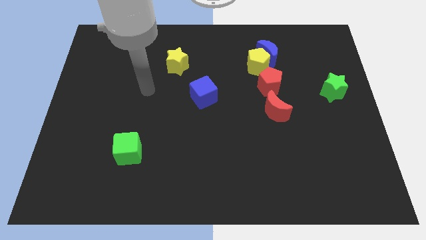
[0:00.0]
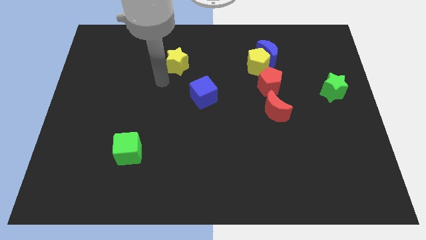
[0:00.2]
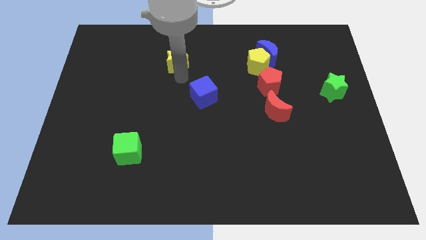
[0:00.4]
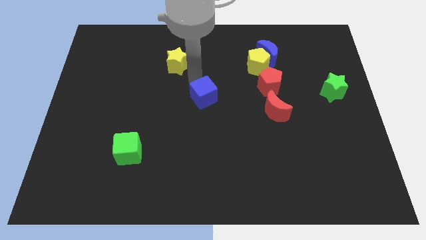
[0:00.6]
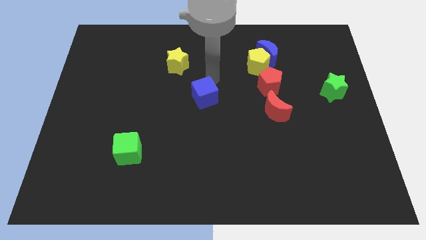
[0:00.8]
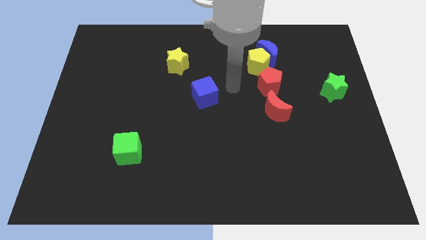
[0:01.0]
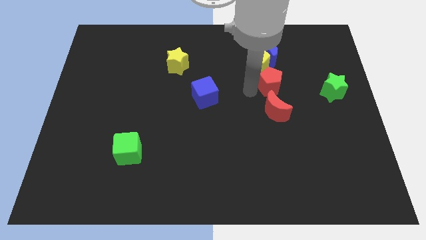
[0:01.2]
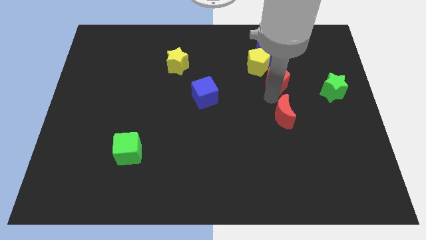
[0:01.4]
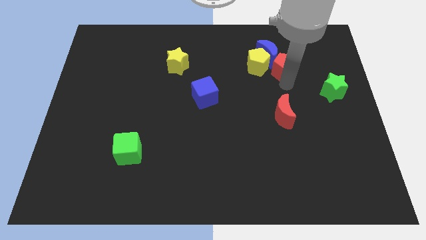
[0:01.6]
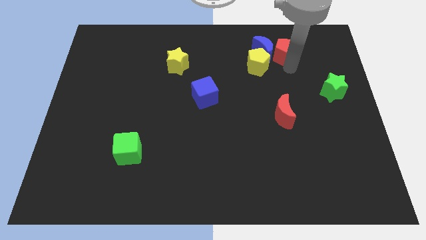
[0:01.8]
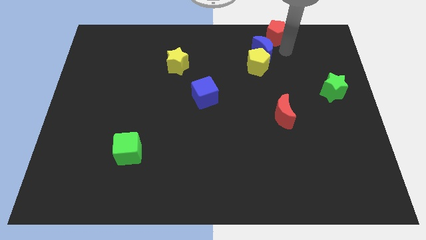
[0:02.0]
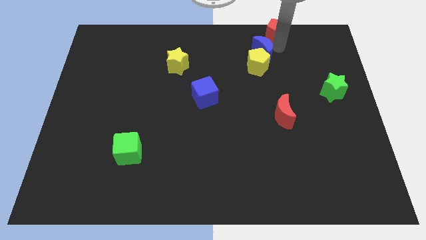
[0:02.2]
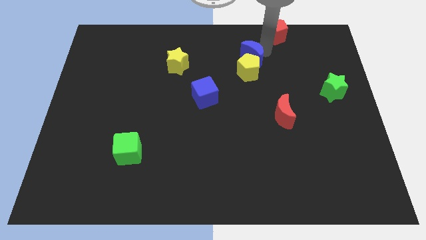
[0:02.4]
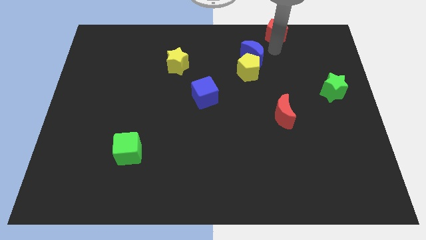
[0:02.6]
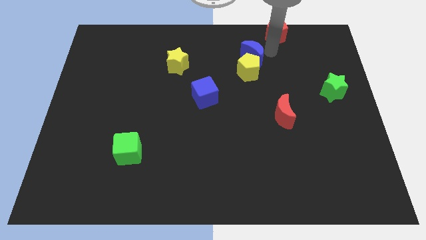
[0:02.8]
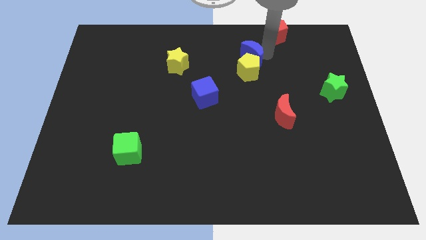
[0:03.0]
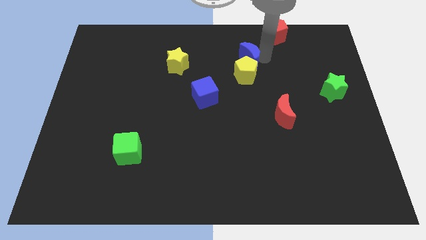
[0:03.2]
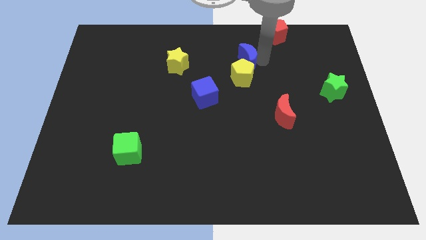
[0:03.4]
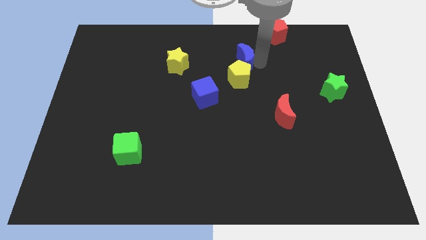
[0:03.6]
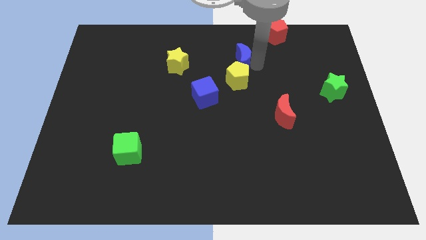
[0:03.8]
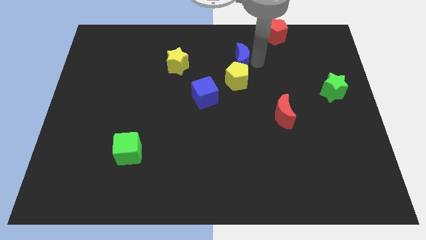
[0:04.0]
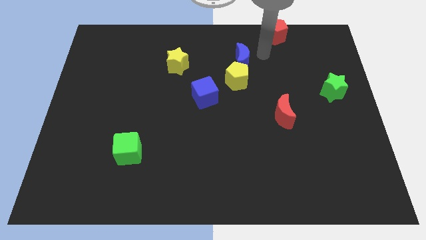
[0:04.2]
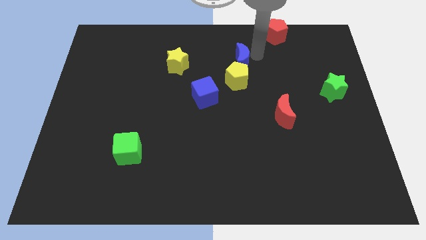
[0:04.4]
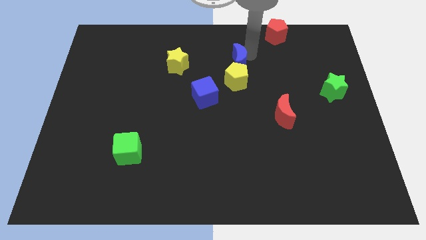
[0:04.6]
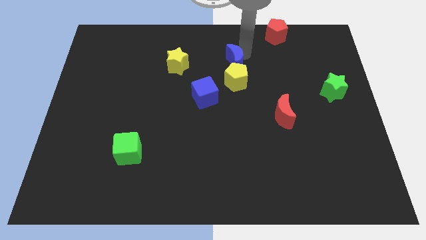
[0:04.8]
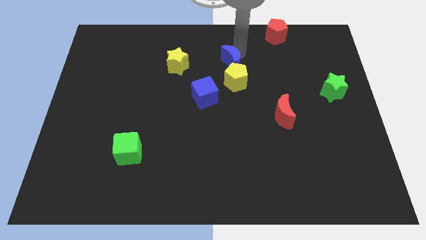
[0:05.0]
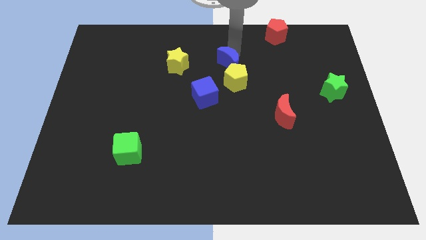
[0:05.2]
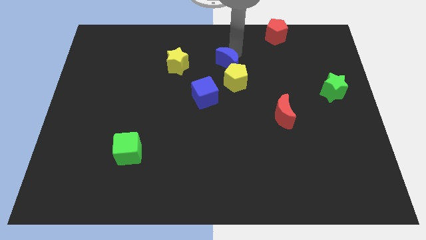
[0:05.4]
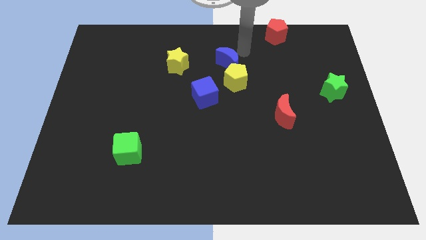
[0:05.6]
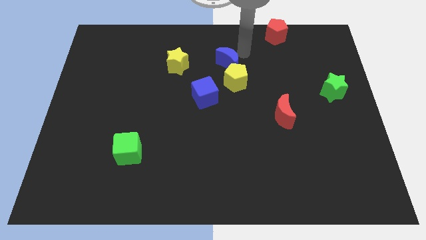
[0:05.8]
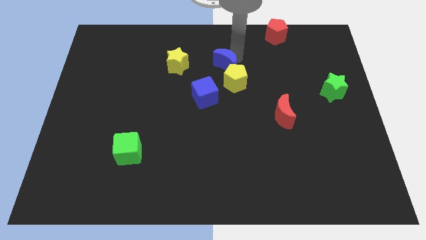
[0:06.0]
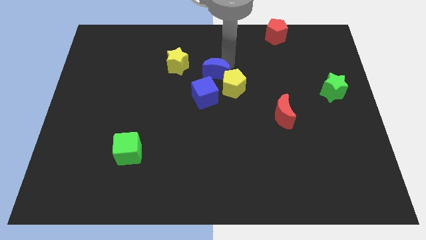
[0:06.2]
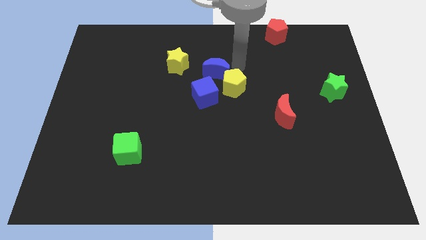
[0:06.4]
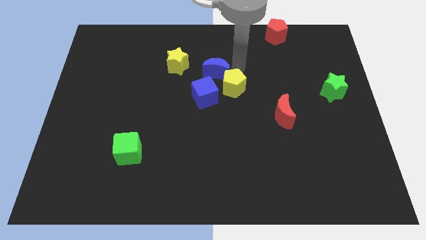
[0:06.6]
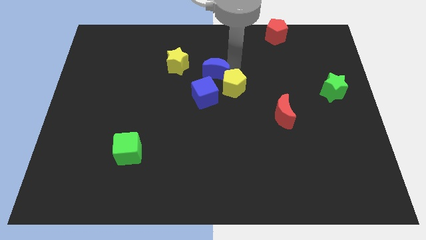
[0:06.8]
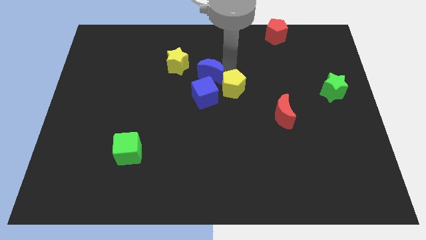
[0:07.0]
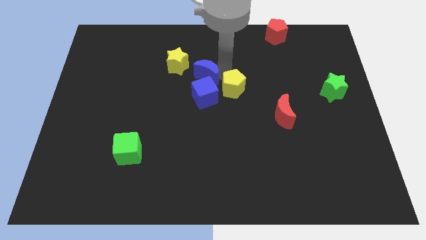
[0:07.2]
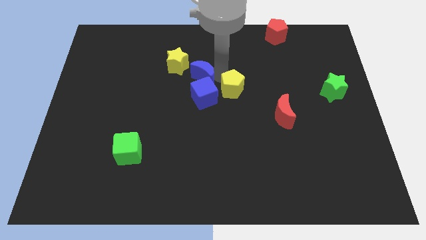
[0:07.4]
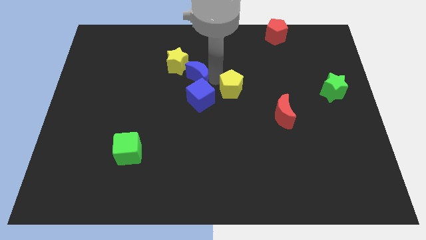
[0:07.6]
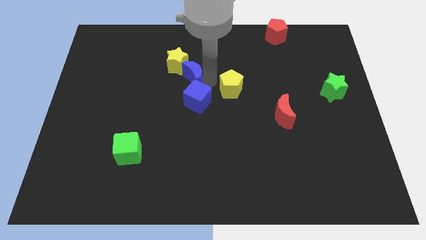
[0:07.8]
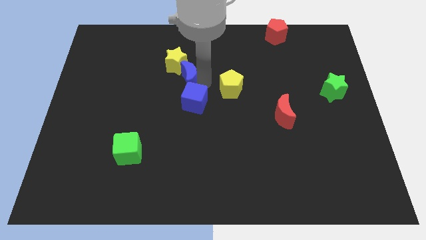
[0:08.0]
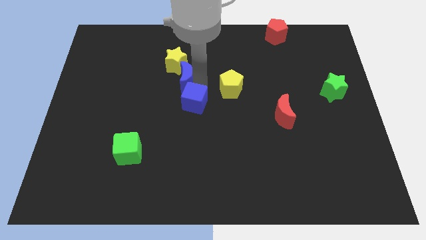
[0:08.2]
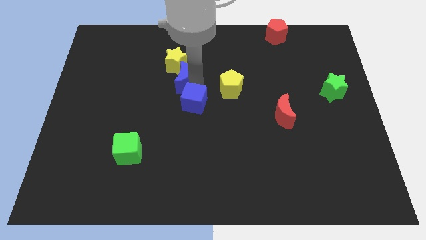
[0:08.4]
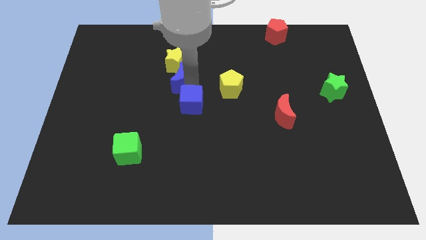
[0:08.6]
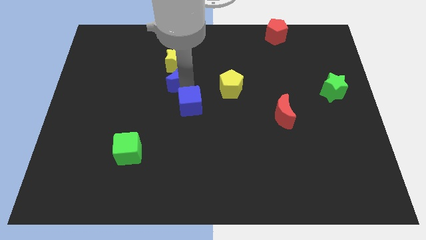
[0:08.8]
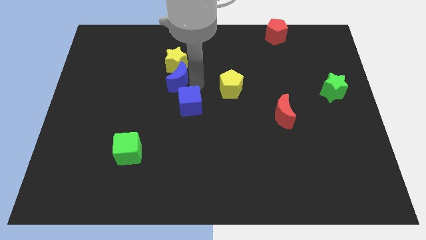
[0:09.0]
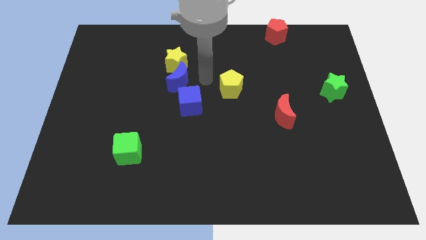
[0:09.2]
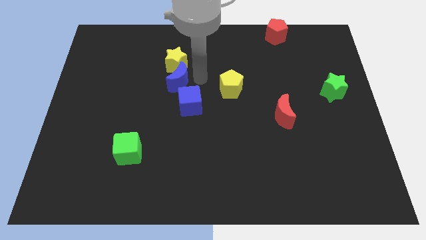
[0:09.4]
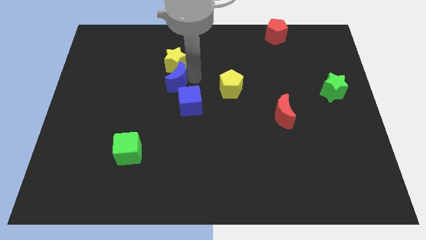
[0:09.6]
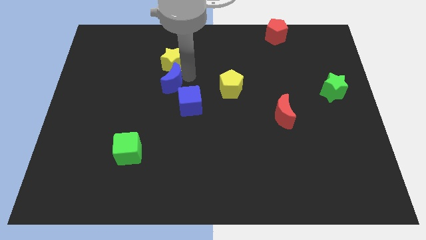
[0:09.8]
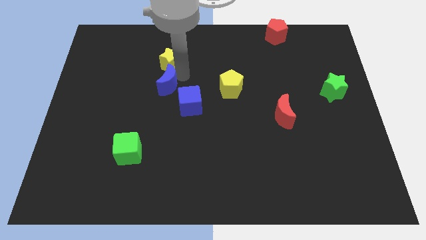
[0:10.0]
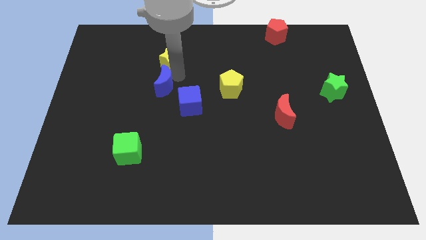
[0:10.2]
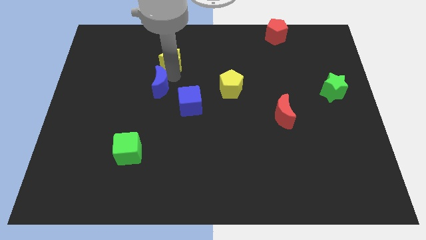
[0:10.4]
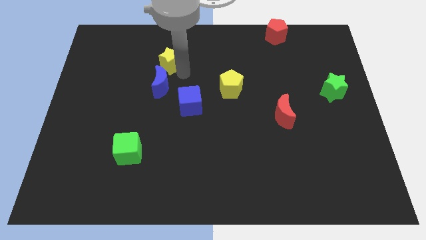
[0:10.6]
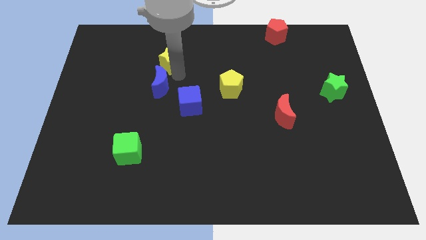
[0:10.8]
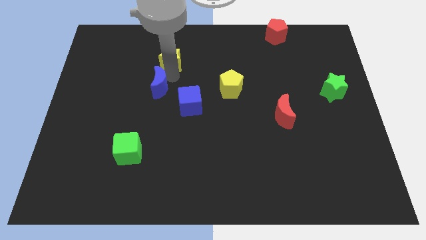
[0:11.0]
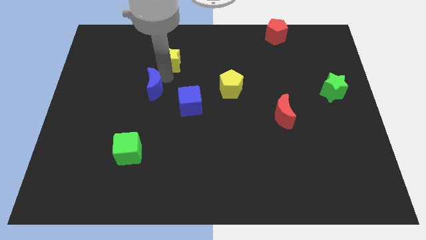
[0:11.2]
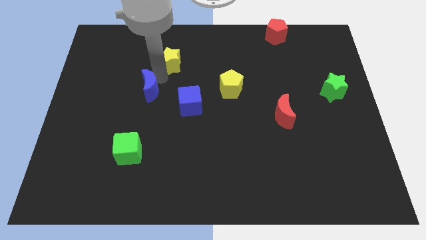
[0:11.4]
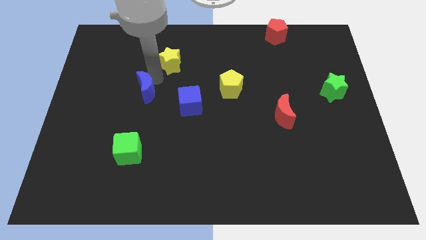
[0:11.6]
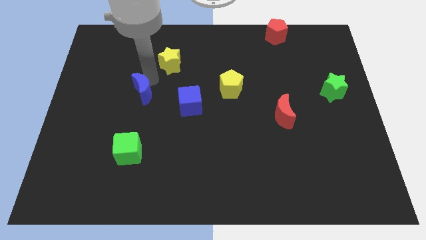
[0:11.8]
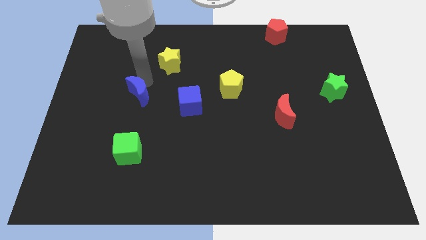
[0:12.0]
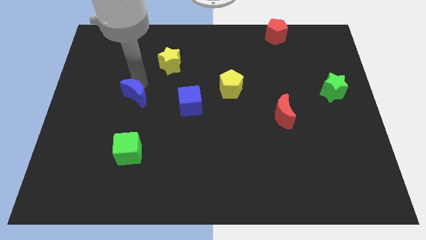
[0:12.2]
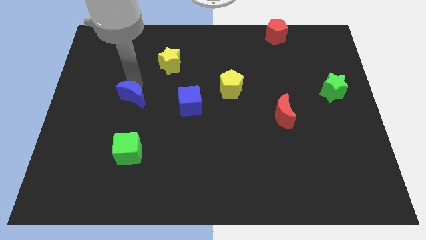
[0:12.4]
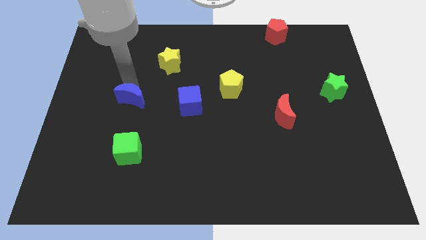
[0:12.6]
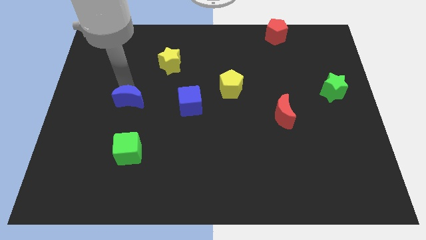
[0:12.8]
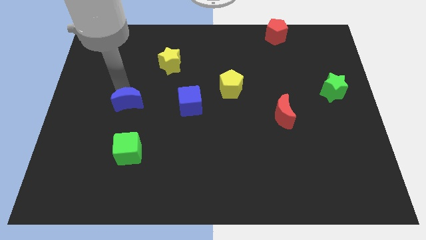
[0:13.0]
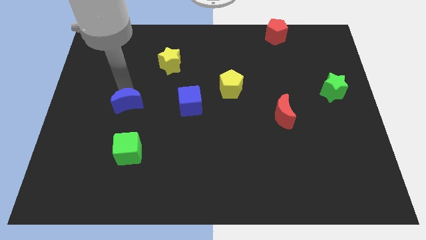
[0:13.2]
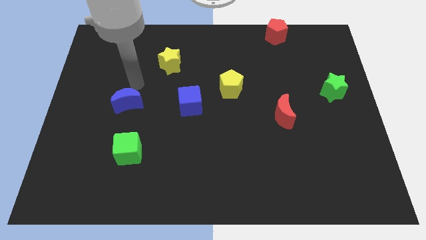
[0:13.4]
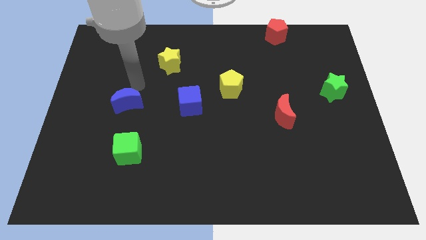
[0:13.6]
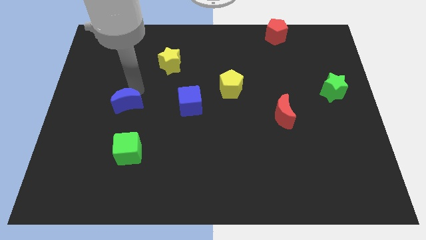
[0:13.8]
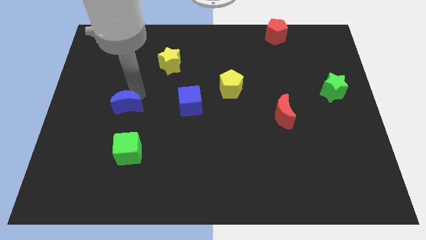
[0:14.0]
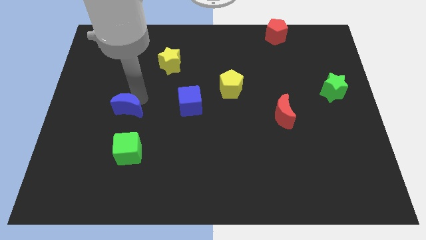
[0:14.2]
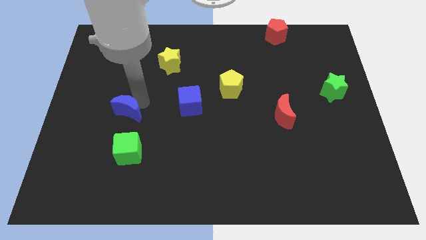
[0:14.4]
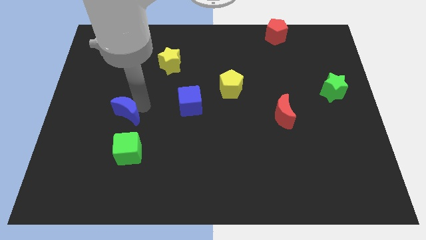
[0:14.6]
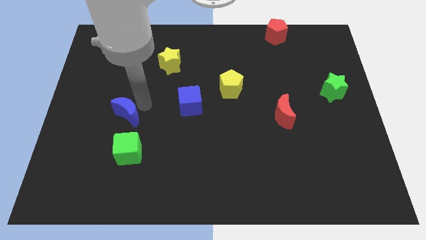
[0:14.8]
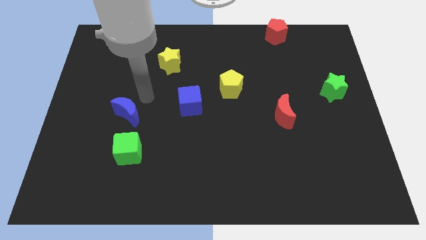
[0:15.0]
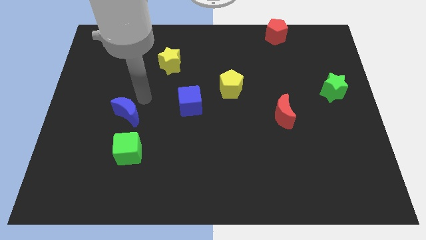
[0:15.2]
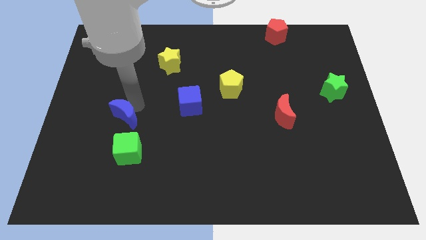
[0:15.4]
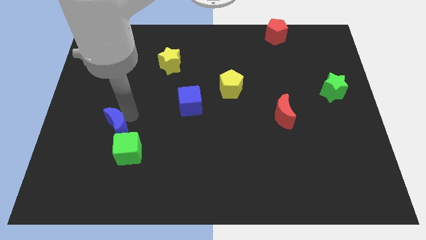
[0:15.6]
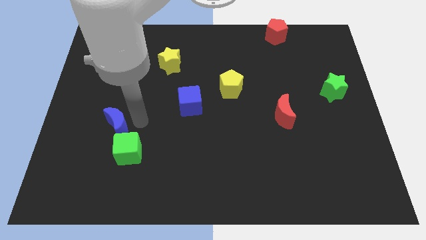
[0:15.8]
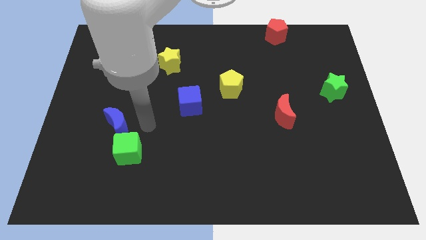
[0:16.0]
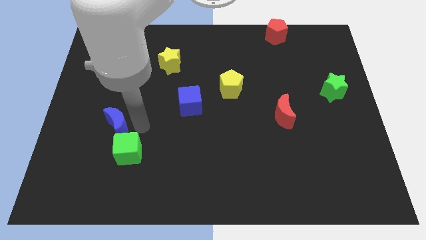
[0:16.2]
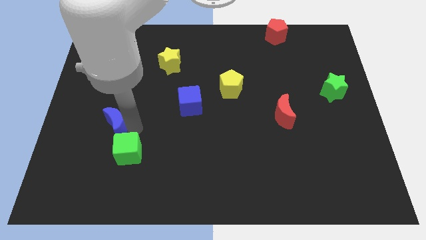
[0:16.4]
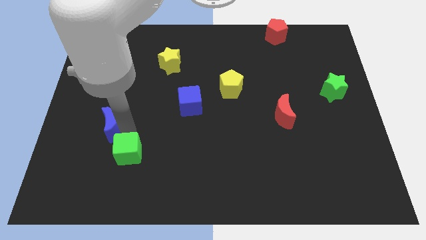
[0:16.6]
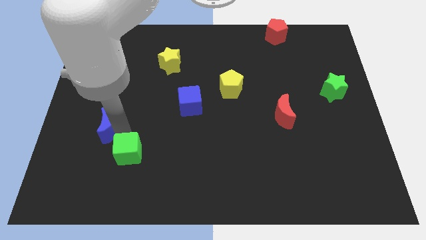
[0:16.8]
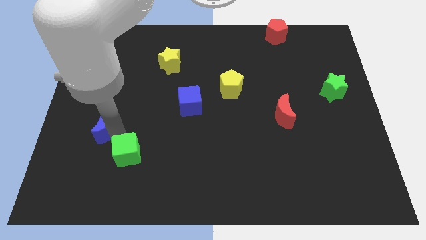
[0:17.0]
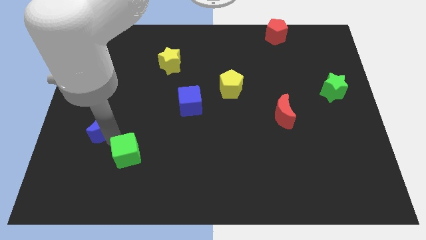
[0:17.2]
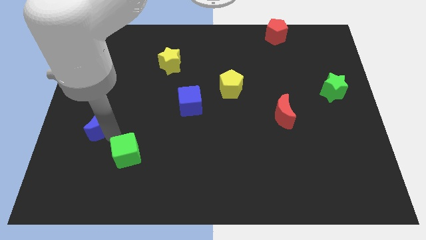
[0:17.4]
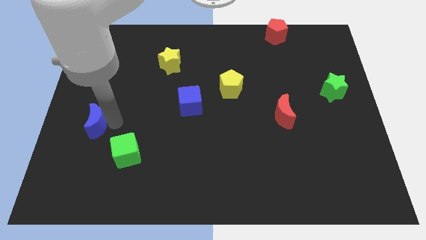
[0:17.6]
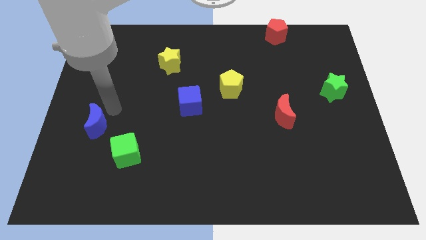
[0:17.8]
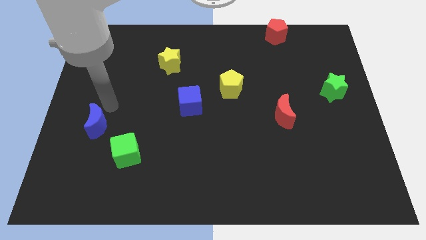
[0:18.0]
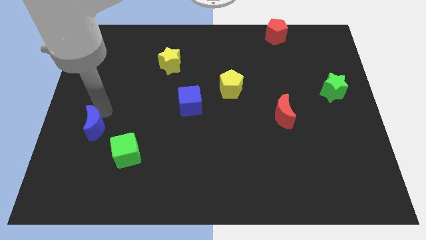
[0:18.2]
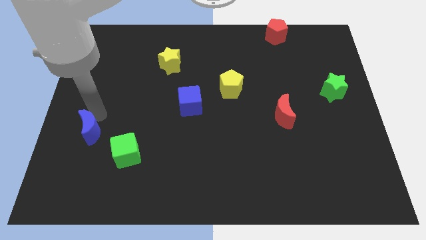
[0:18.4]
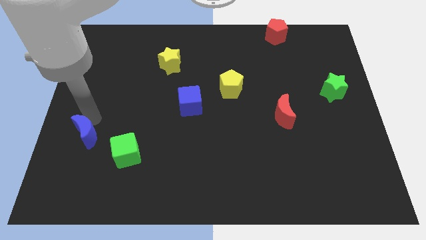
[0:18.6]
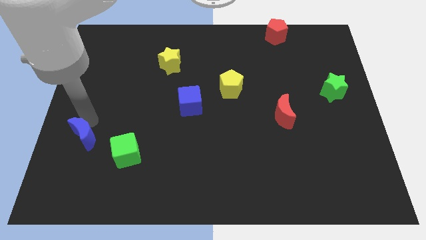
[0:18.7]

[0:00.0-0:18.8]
slide the blue moon just left of the green cube
